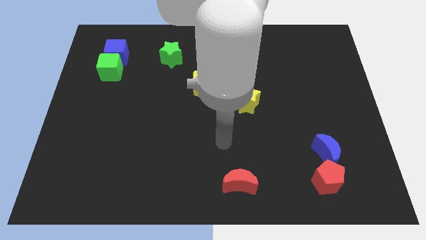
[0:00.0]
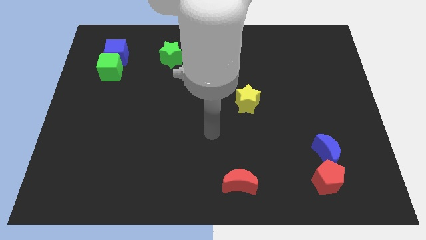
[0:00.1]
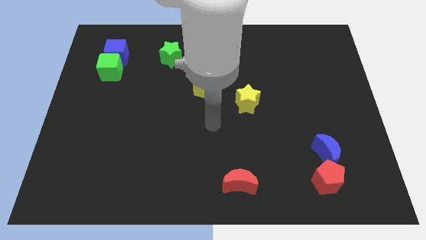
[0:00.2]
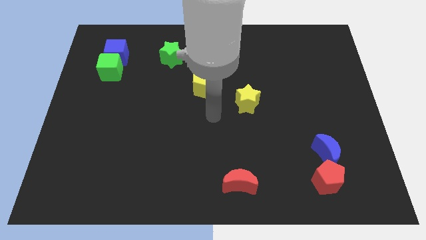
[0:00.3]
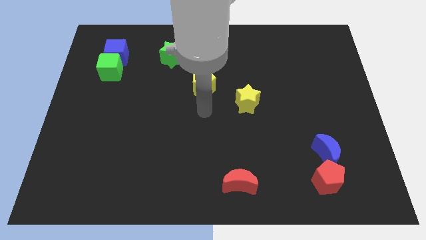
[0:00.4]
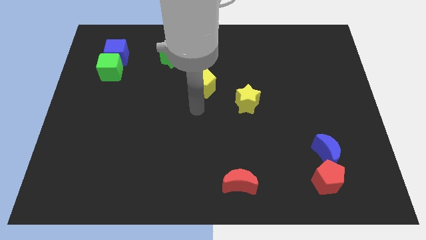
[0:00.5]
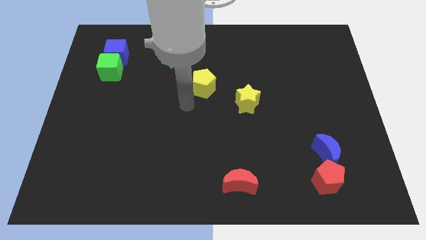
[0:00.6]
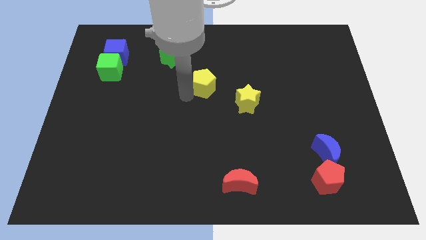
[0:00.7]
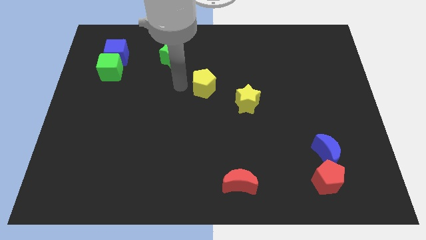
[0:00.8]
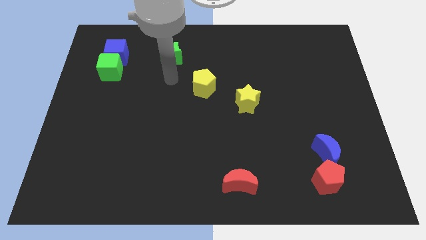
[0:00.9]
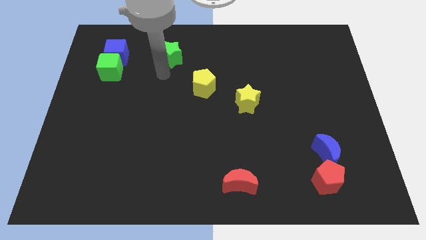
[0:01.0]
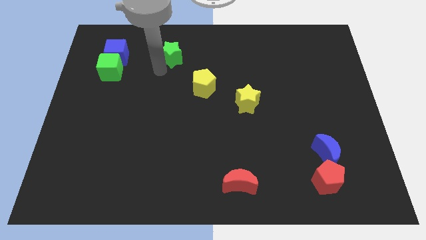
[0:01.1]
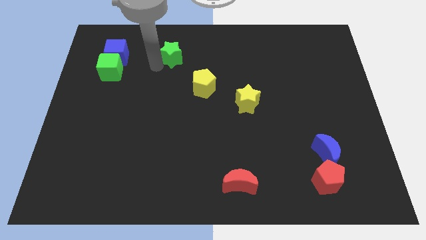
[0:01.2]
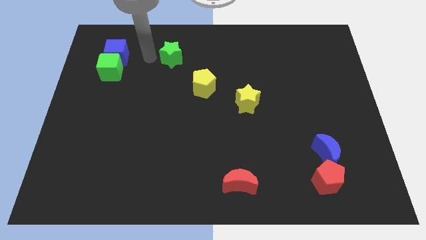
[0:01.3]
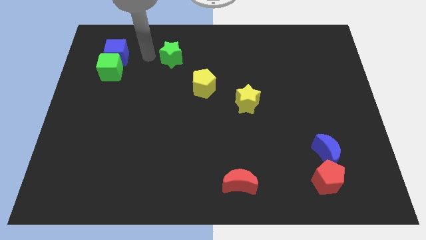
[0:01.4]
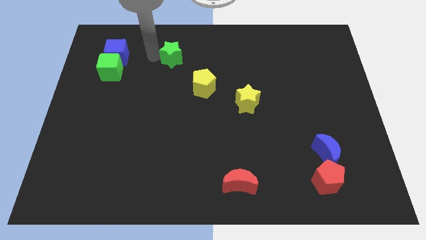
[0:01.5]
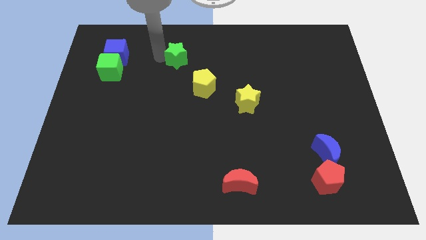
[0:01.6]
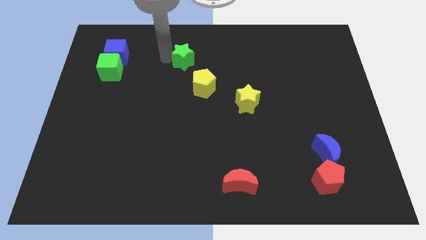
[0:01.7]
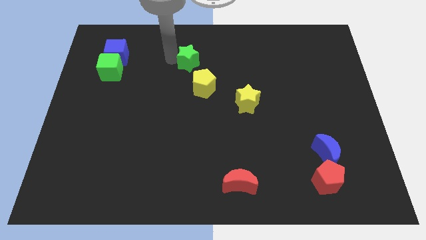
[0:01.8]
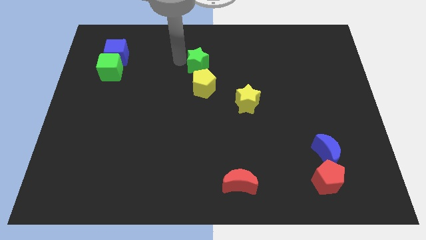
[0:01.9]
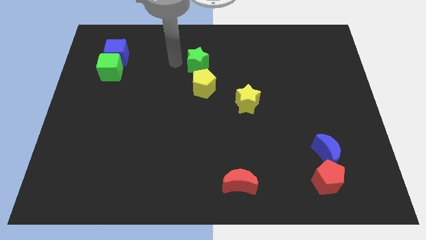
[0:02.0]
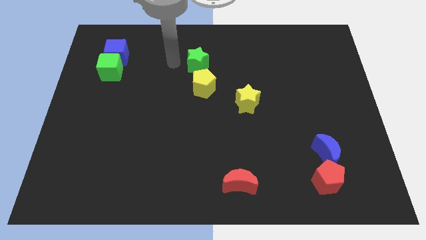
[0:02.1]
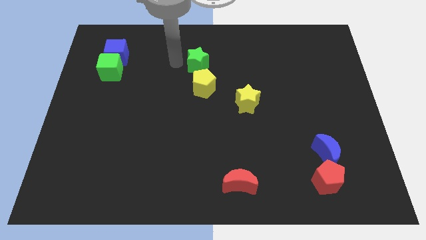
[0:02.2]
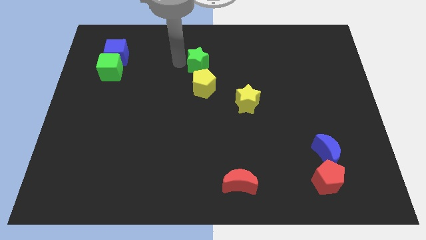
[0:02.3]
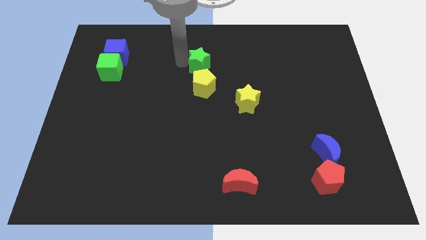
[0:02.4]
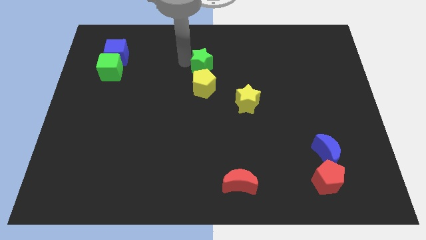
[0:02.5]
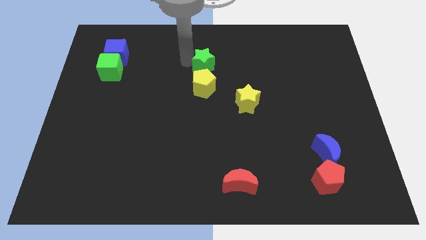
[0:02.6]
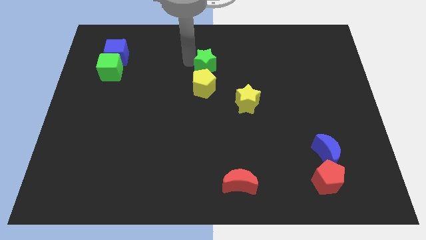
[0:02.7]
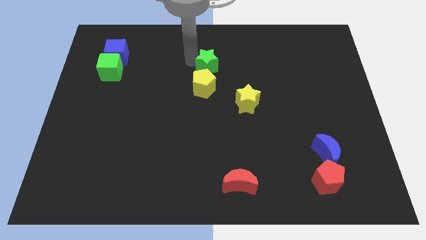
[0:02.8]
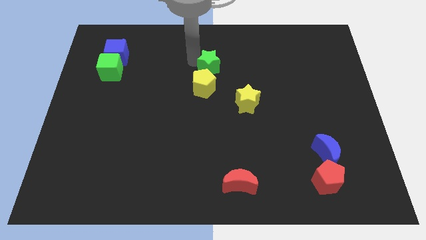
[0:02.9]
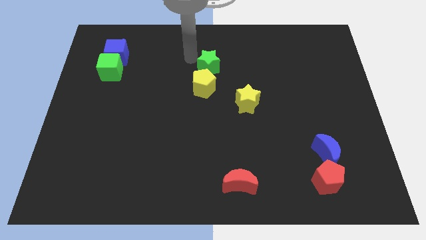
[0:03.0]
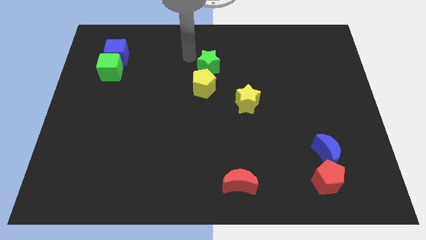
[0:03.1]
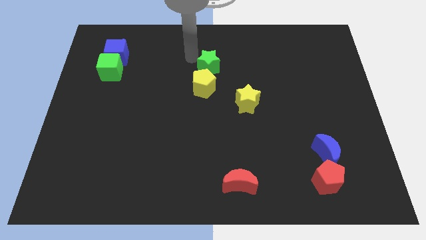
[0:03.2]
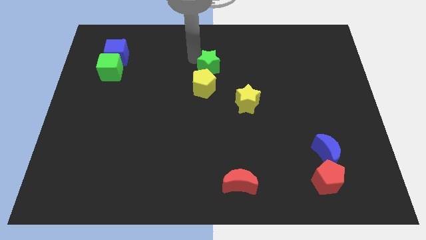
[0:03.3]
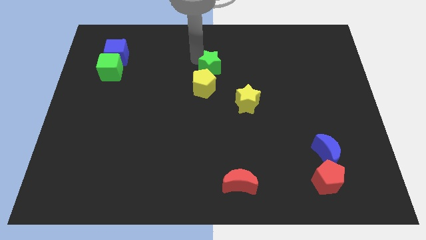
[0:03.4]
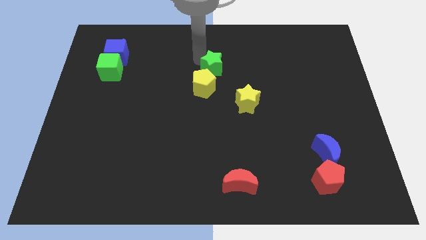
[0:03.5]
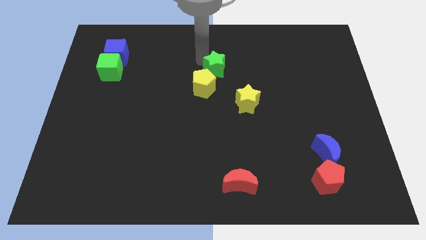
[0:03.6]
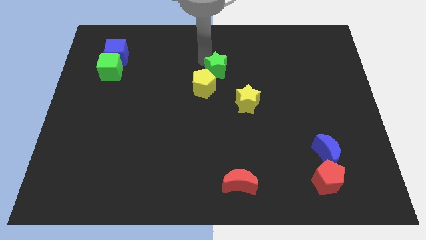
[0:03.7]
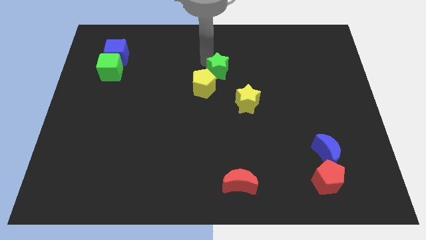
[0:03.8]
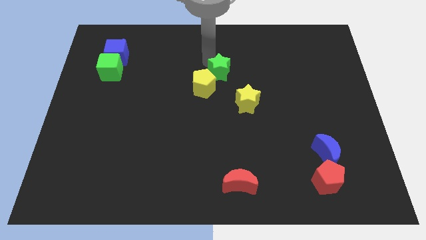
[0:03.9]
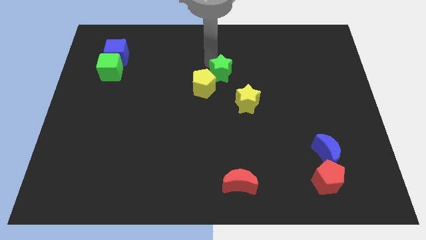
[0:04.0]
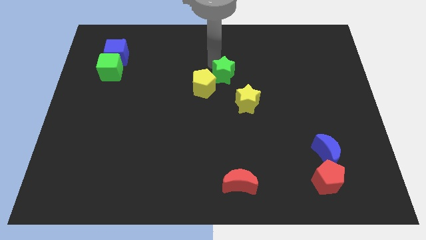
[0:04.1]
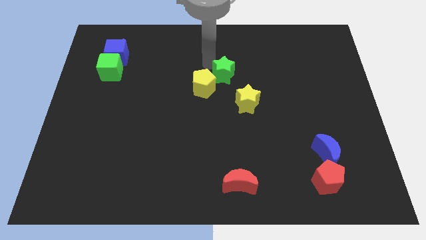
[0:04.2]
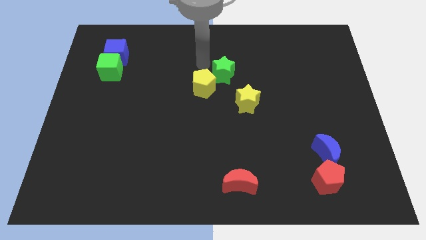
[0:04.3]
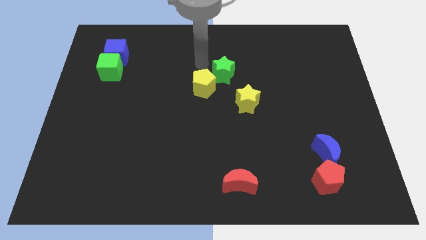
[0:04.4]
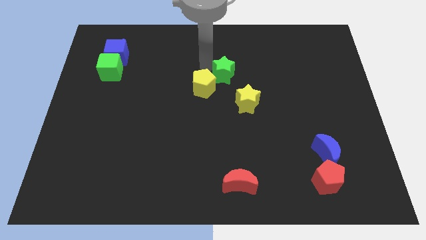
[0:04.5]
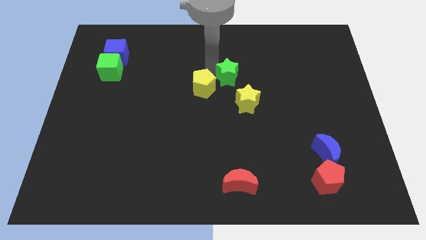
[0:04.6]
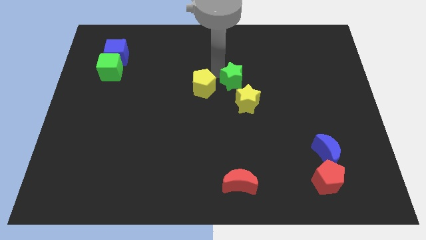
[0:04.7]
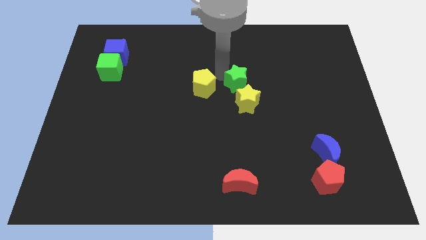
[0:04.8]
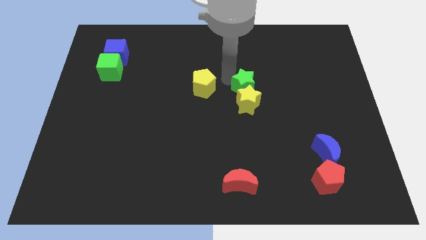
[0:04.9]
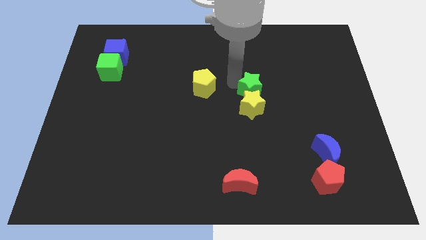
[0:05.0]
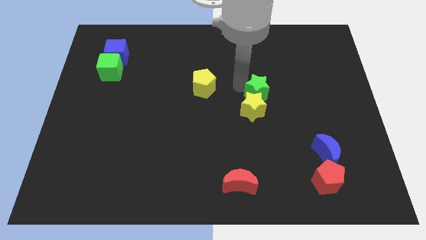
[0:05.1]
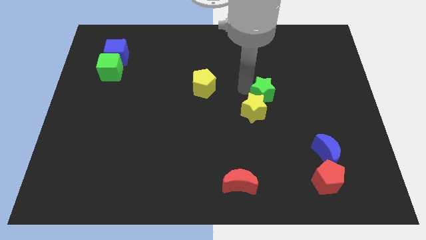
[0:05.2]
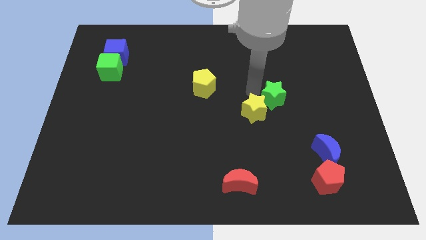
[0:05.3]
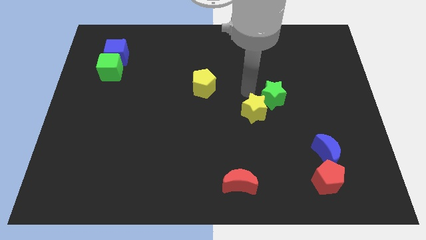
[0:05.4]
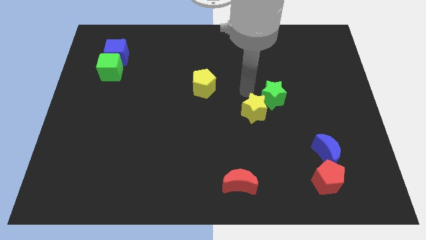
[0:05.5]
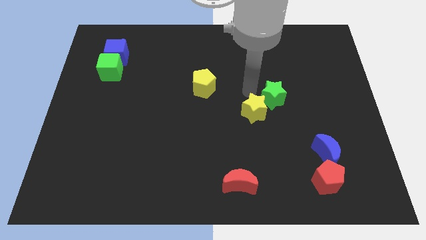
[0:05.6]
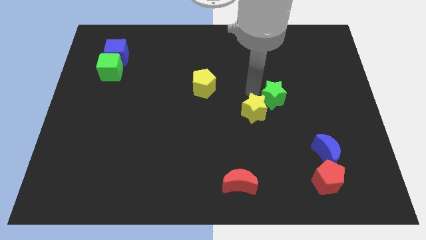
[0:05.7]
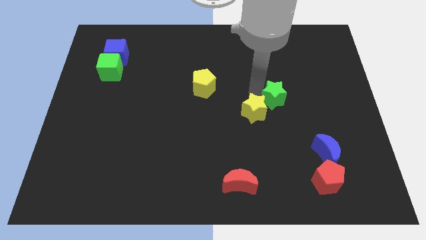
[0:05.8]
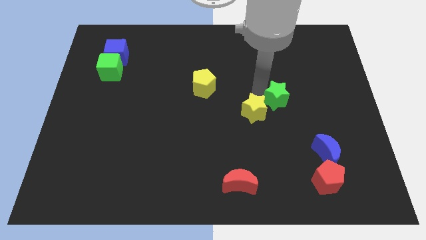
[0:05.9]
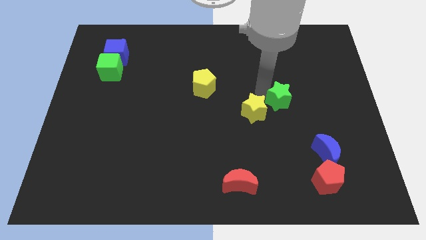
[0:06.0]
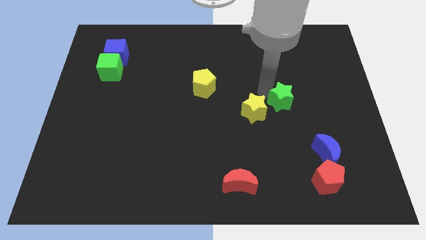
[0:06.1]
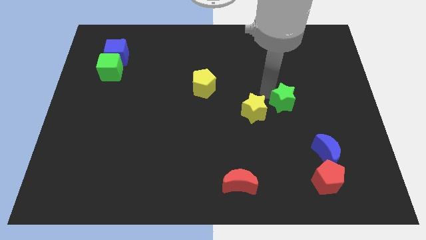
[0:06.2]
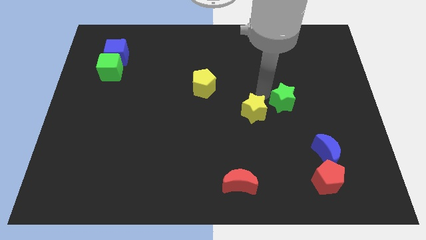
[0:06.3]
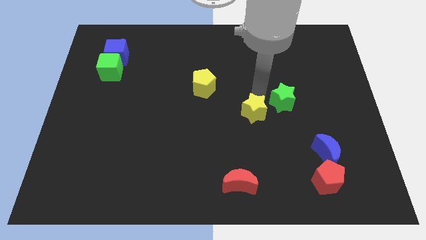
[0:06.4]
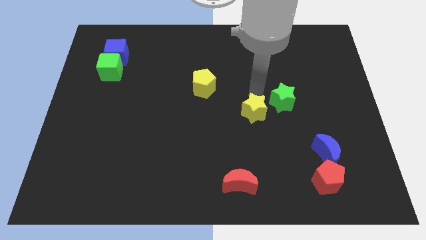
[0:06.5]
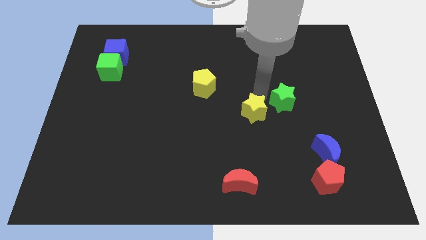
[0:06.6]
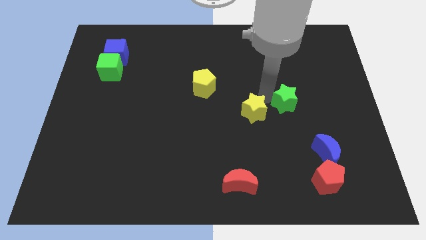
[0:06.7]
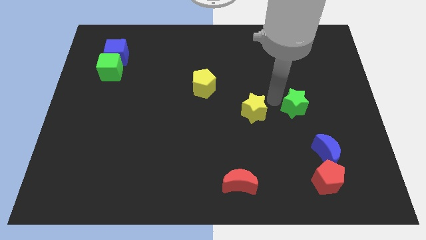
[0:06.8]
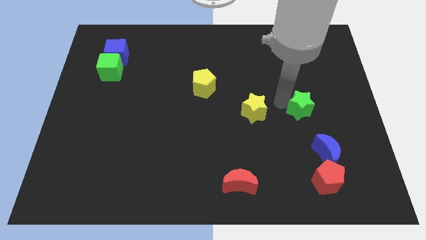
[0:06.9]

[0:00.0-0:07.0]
put the green star to the top of the blue moon
